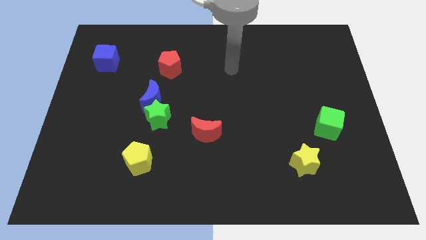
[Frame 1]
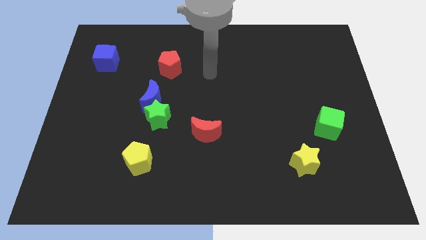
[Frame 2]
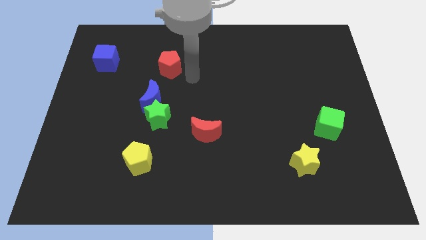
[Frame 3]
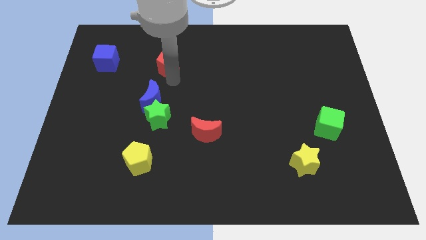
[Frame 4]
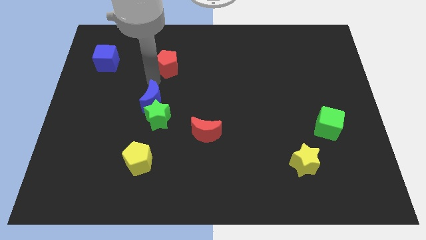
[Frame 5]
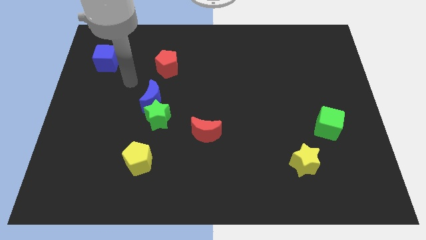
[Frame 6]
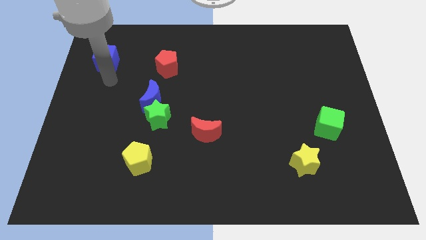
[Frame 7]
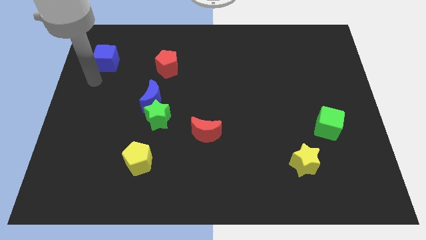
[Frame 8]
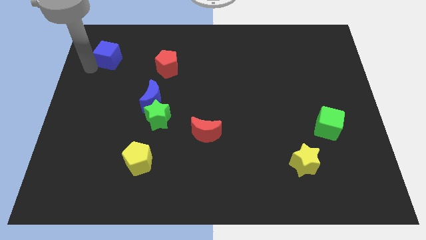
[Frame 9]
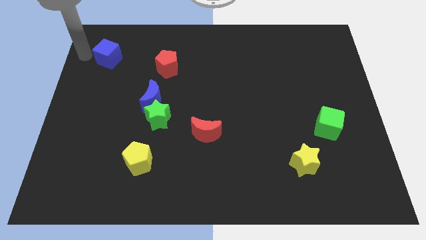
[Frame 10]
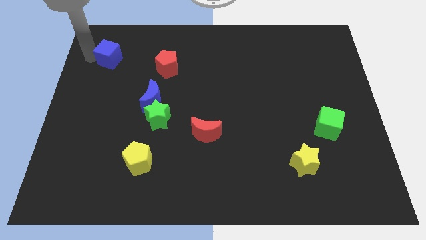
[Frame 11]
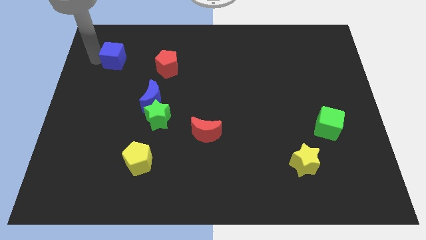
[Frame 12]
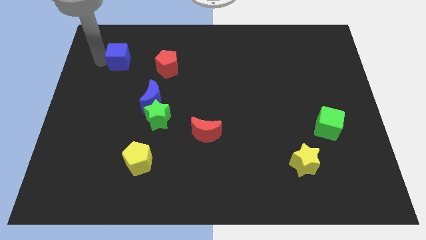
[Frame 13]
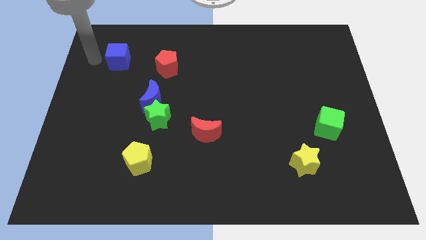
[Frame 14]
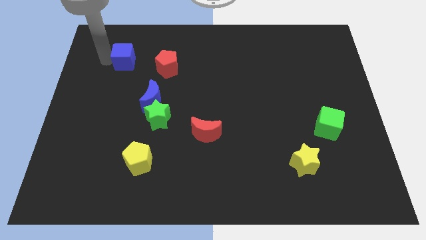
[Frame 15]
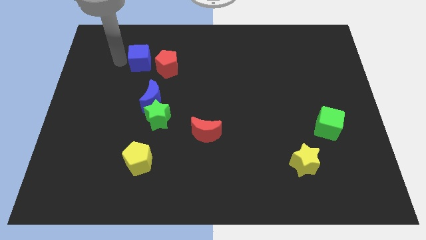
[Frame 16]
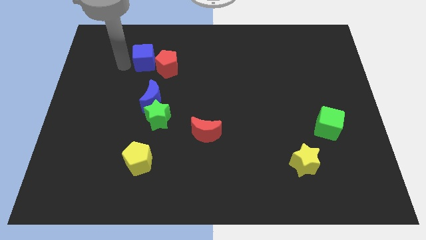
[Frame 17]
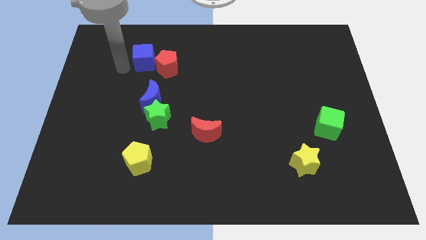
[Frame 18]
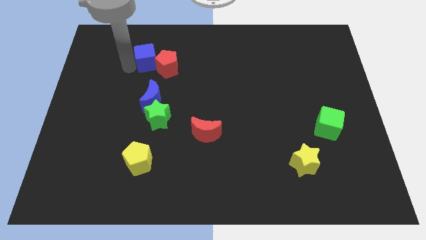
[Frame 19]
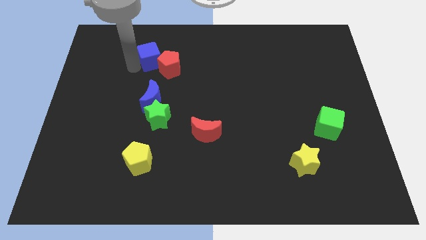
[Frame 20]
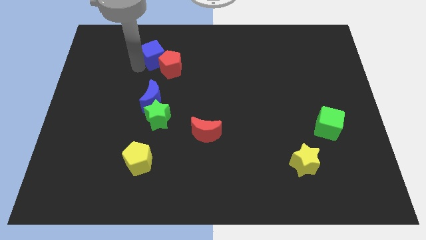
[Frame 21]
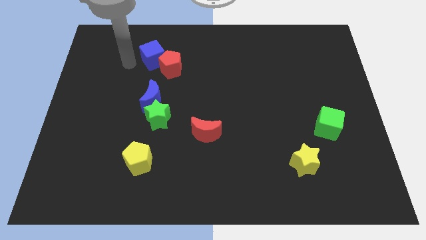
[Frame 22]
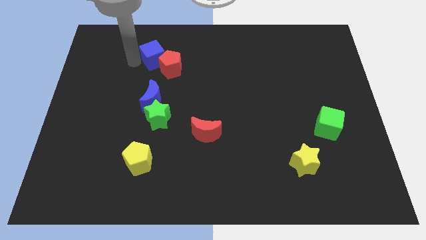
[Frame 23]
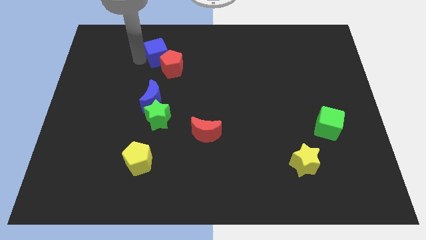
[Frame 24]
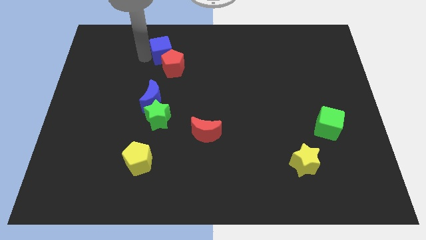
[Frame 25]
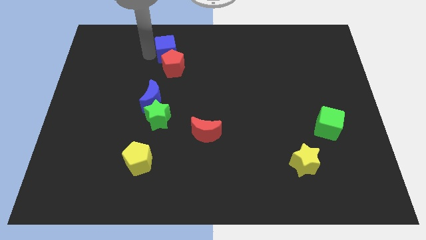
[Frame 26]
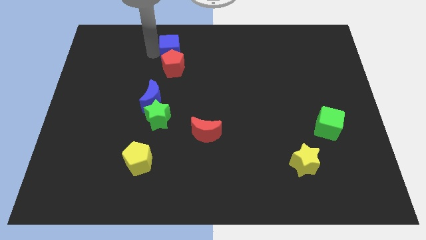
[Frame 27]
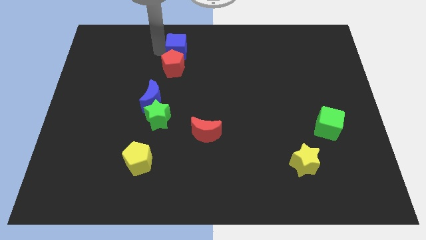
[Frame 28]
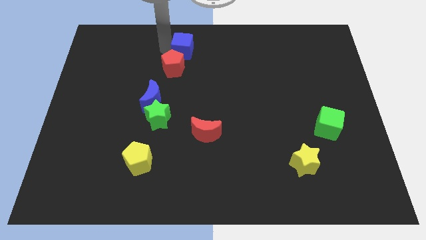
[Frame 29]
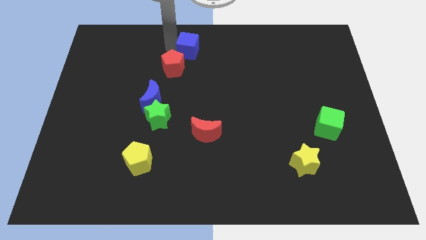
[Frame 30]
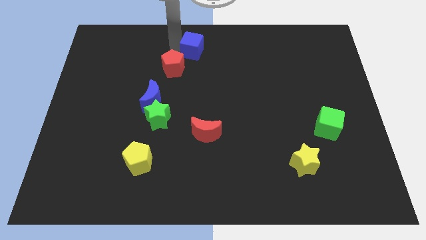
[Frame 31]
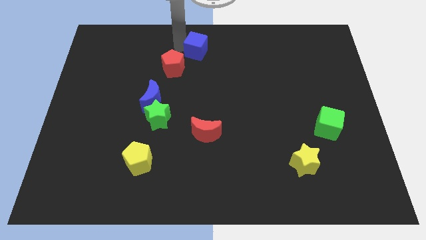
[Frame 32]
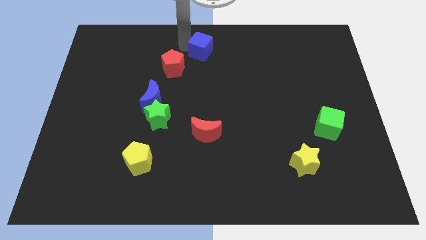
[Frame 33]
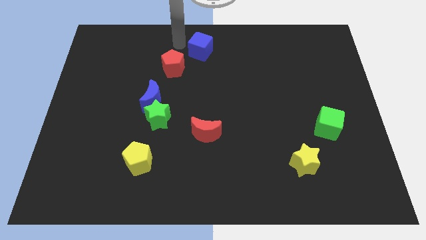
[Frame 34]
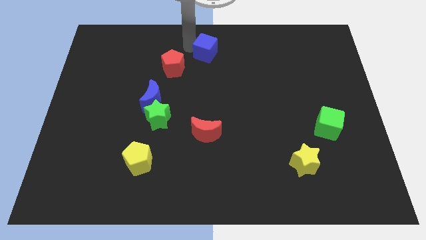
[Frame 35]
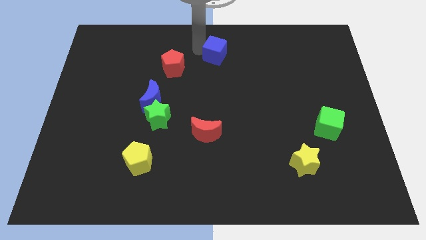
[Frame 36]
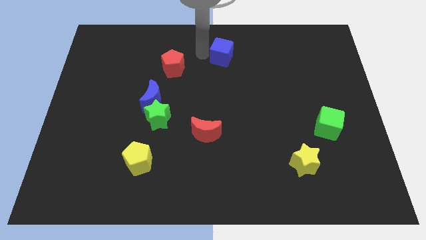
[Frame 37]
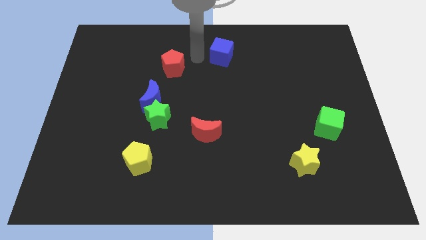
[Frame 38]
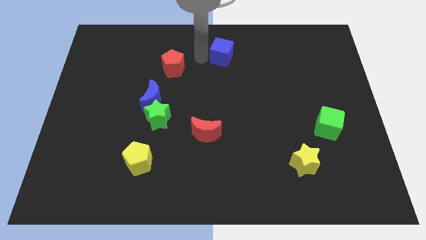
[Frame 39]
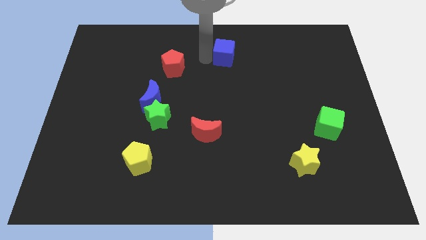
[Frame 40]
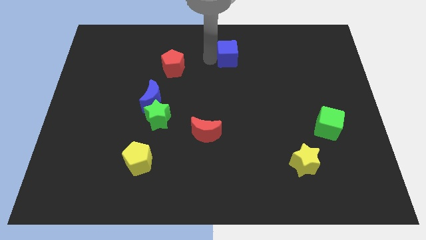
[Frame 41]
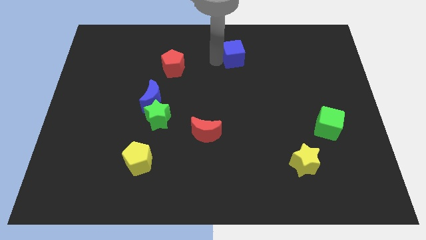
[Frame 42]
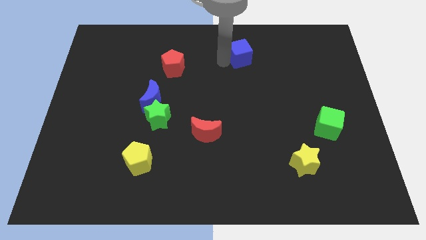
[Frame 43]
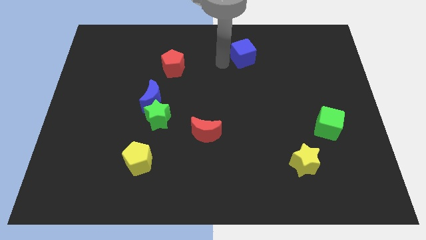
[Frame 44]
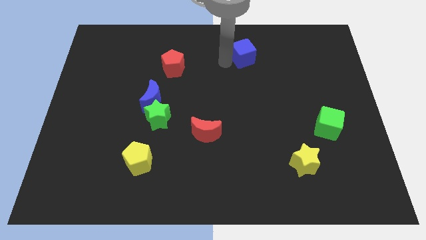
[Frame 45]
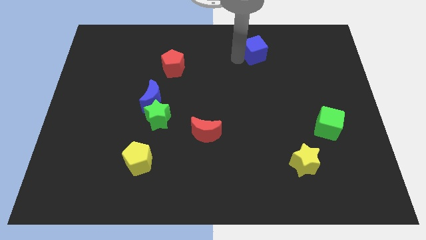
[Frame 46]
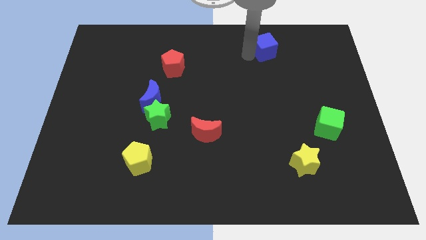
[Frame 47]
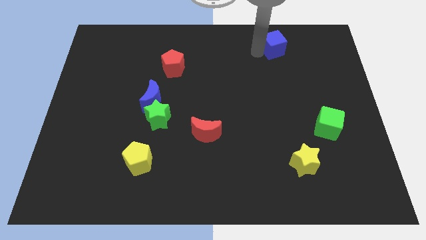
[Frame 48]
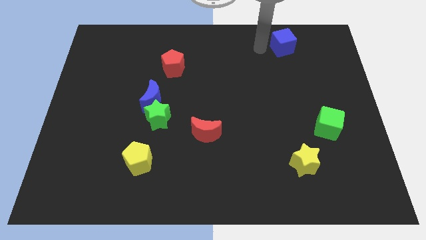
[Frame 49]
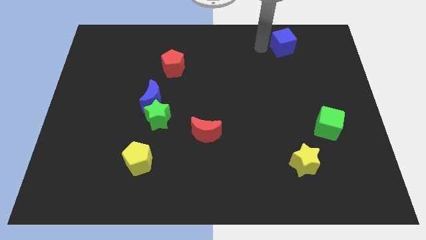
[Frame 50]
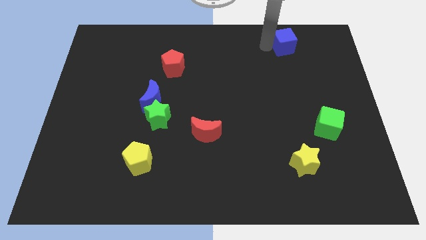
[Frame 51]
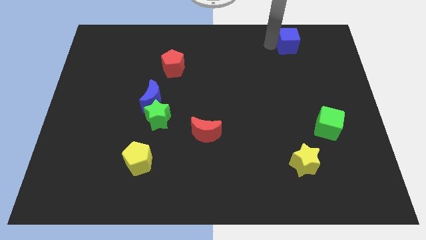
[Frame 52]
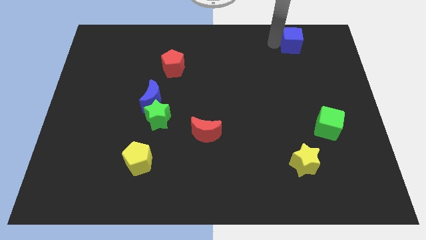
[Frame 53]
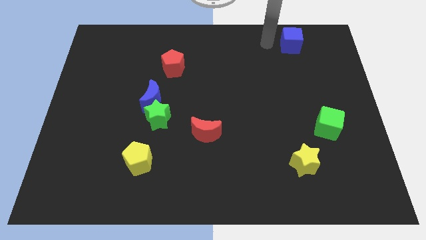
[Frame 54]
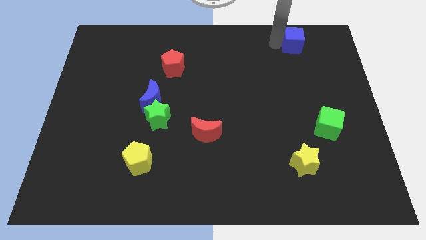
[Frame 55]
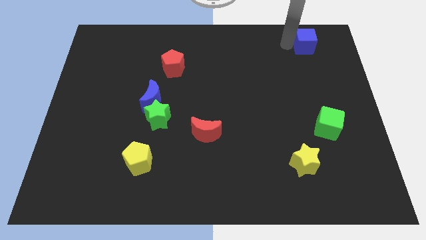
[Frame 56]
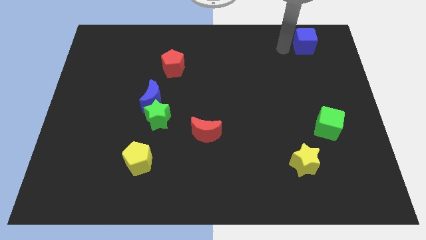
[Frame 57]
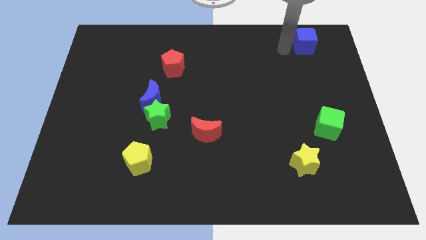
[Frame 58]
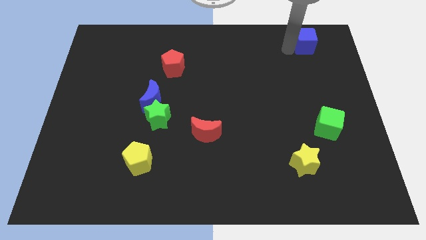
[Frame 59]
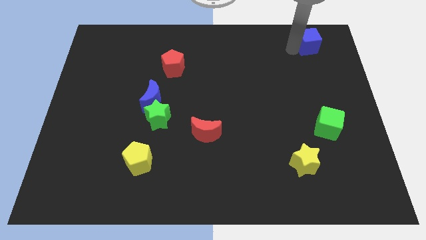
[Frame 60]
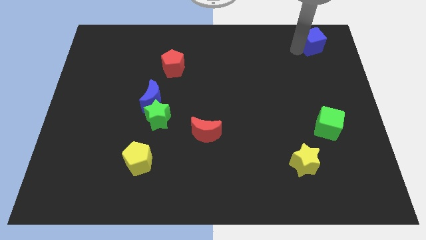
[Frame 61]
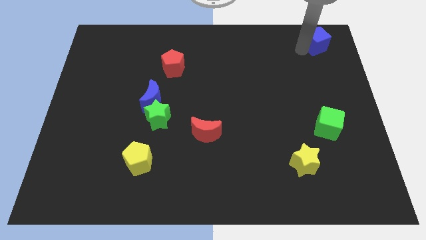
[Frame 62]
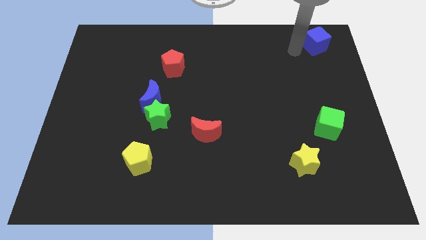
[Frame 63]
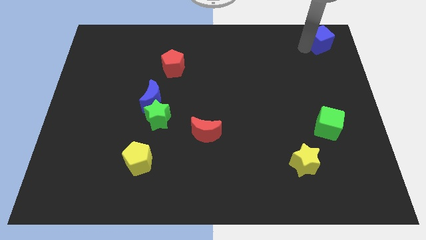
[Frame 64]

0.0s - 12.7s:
move the blue cube to the top right

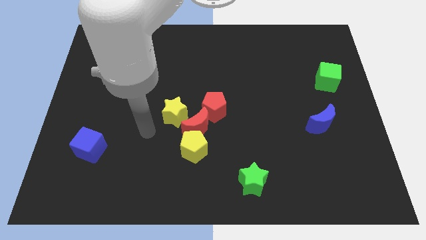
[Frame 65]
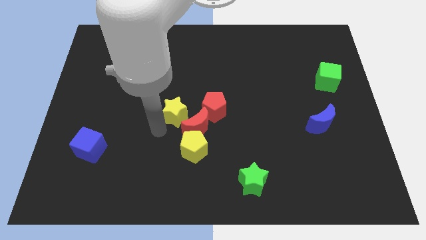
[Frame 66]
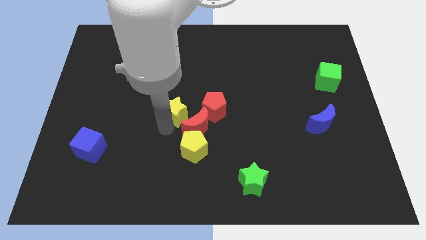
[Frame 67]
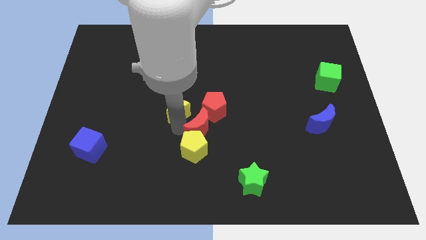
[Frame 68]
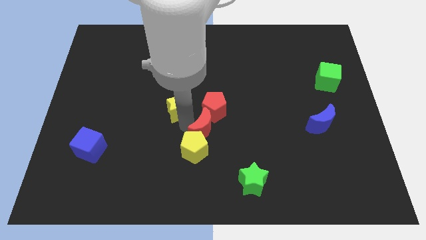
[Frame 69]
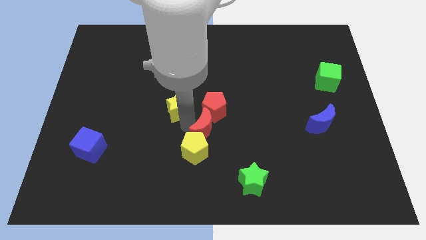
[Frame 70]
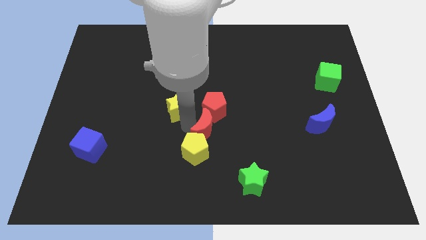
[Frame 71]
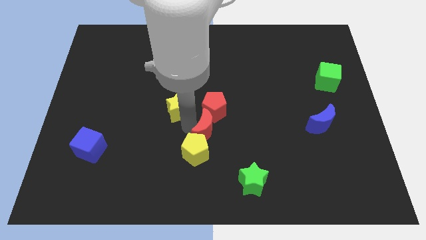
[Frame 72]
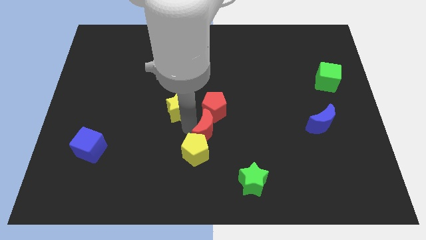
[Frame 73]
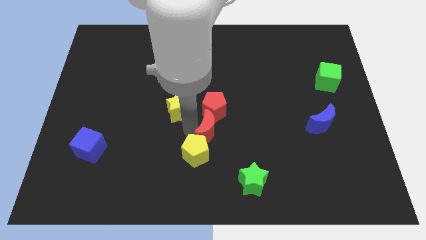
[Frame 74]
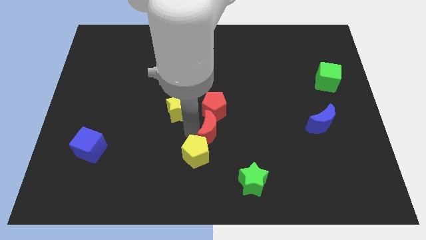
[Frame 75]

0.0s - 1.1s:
slide the yellow pentagon to the bottom
